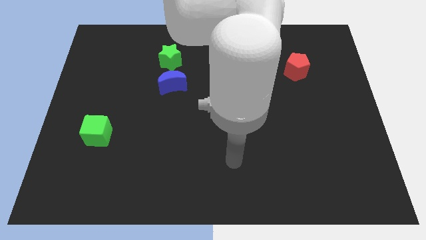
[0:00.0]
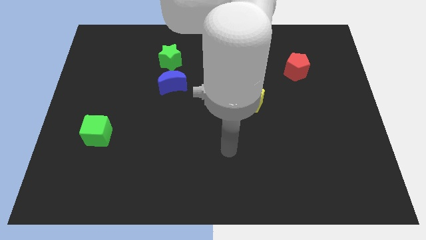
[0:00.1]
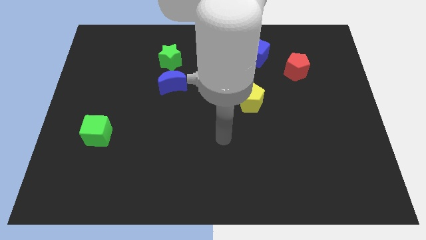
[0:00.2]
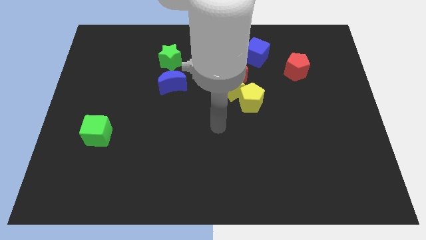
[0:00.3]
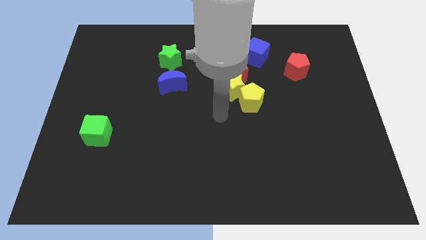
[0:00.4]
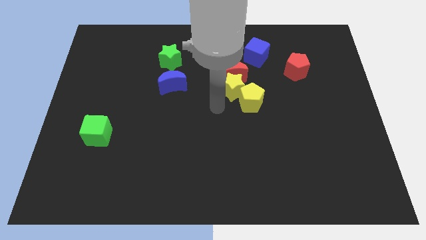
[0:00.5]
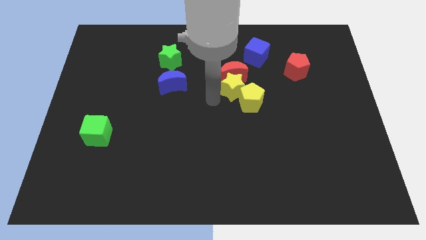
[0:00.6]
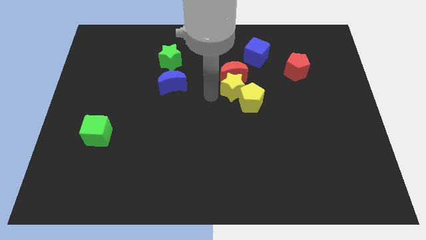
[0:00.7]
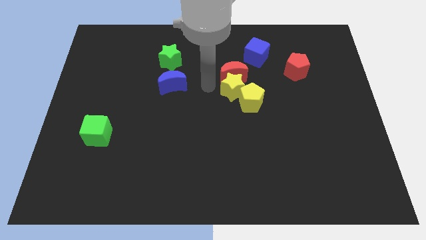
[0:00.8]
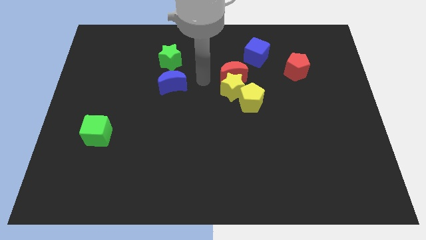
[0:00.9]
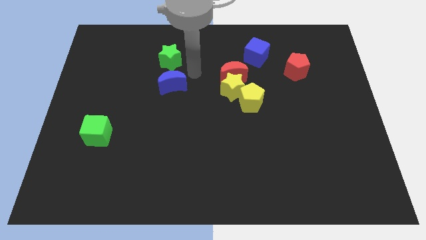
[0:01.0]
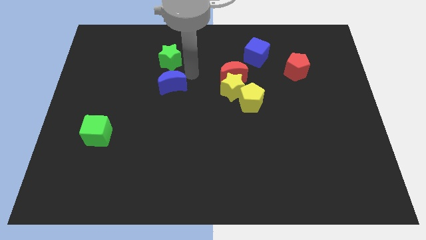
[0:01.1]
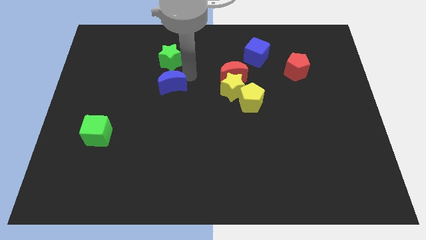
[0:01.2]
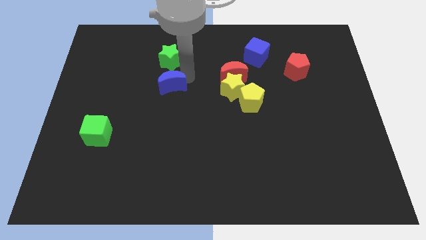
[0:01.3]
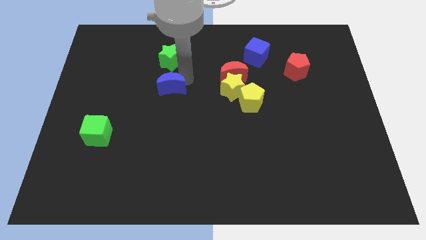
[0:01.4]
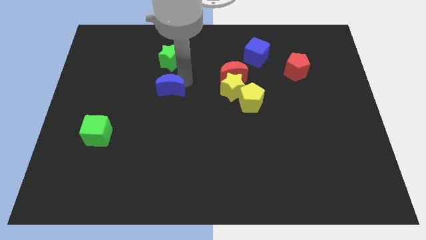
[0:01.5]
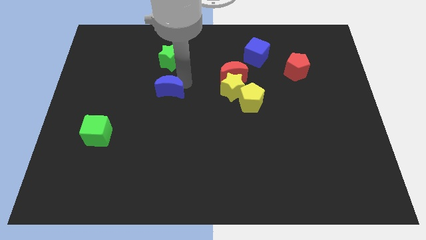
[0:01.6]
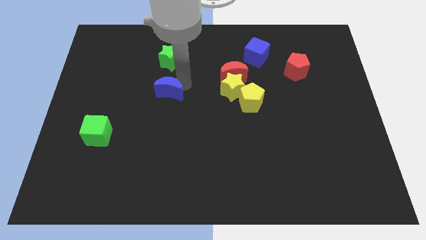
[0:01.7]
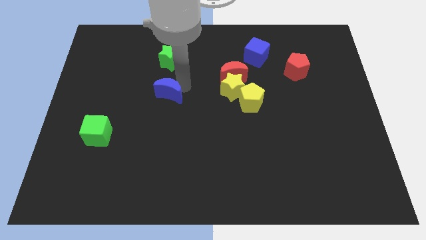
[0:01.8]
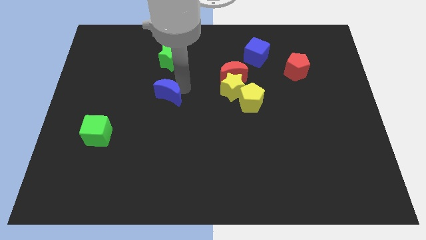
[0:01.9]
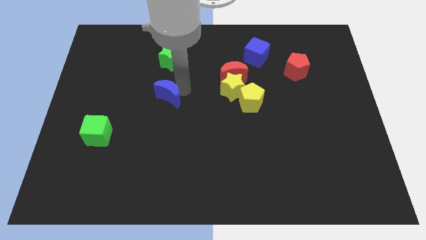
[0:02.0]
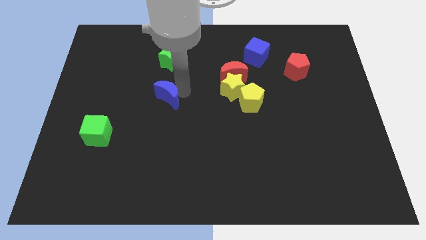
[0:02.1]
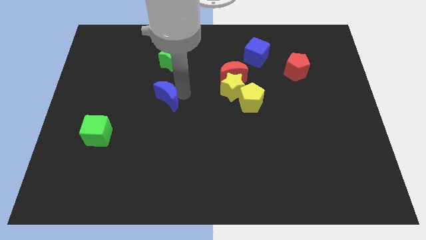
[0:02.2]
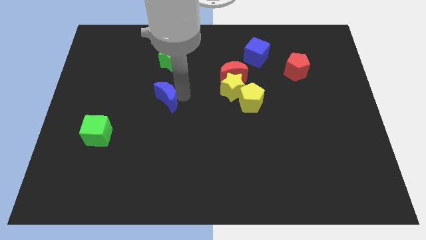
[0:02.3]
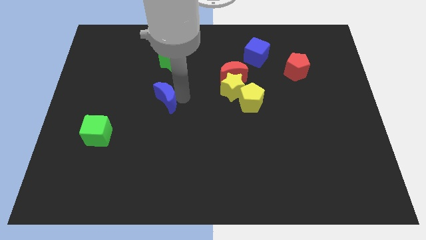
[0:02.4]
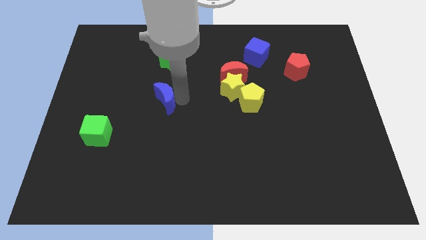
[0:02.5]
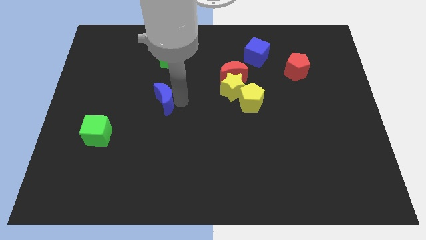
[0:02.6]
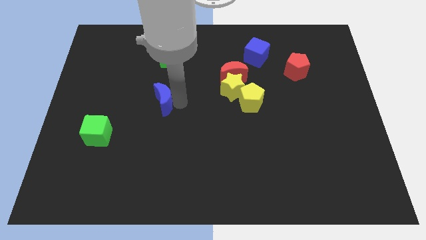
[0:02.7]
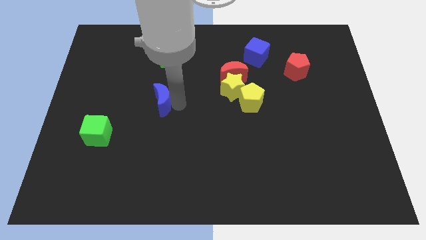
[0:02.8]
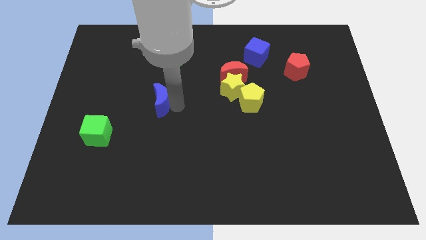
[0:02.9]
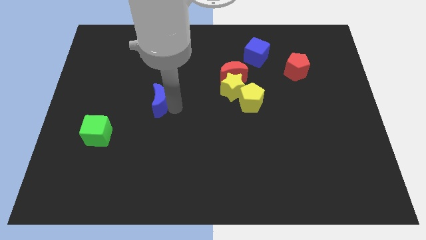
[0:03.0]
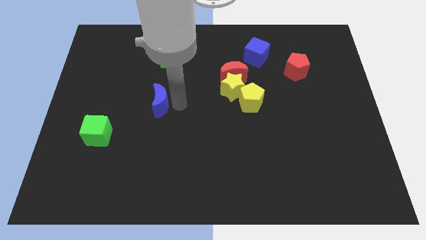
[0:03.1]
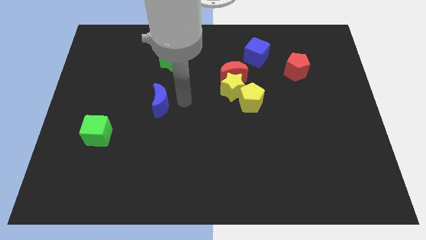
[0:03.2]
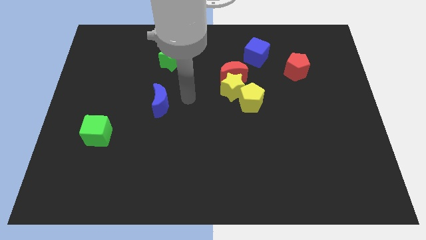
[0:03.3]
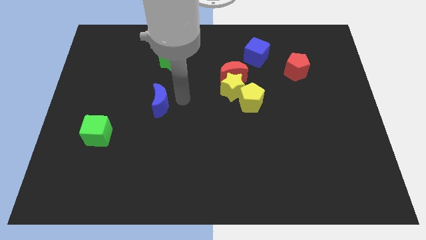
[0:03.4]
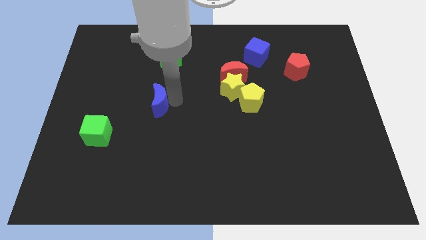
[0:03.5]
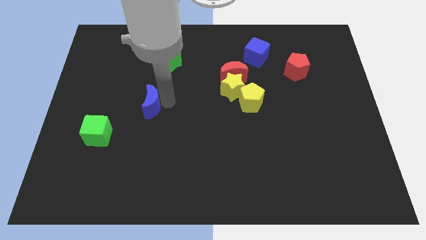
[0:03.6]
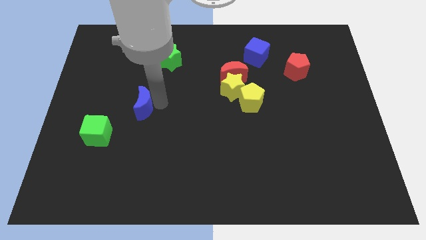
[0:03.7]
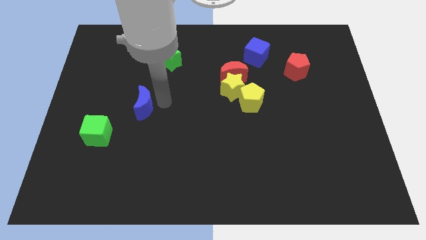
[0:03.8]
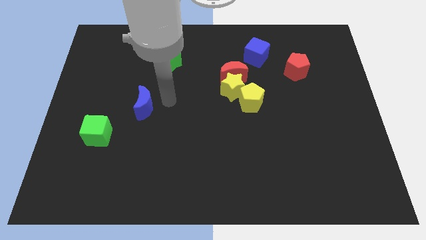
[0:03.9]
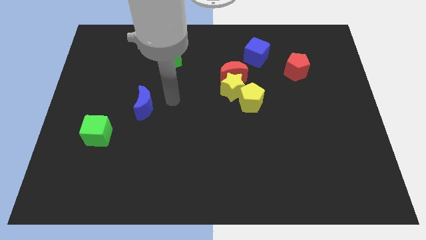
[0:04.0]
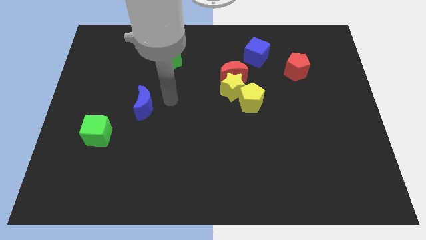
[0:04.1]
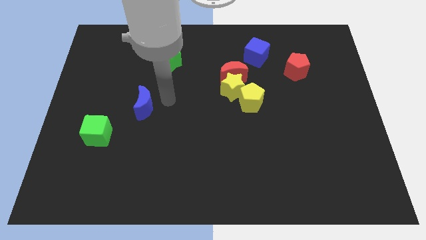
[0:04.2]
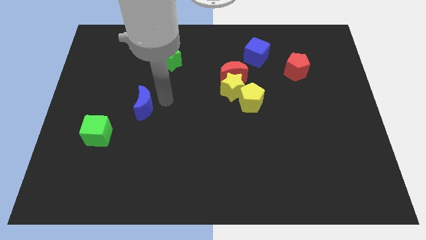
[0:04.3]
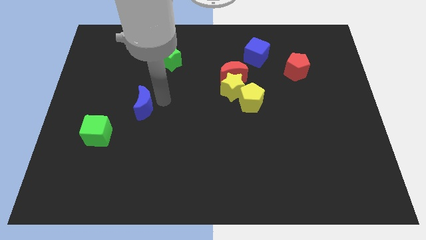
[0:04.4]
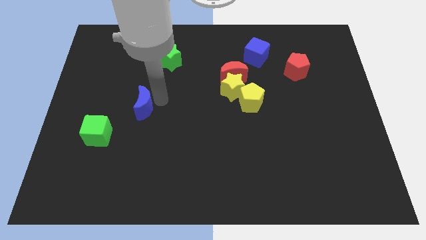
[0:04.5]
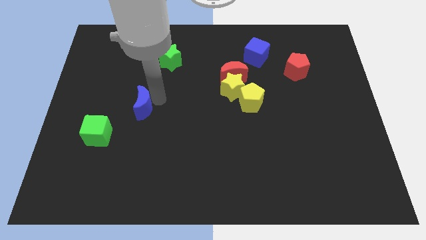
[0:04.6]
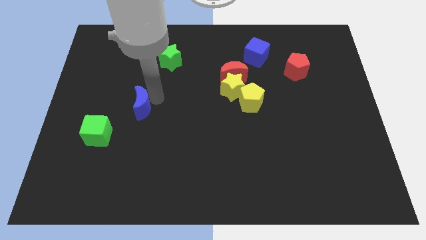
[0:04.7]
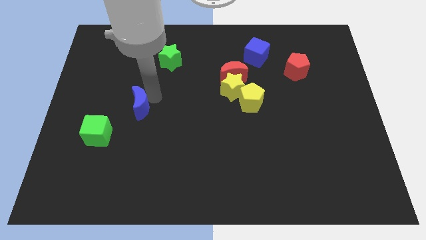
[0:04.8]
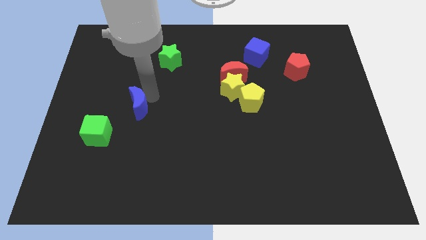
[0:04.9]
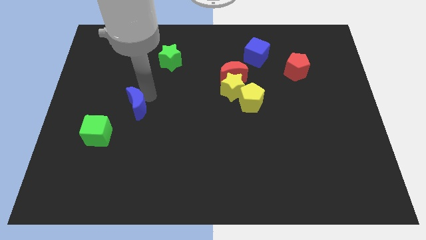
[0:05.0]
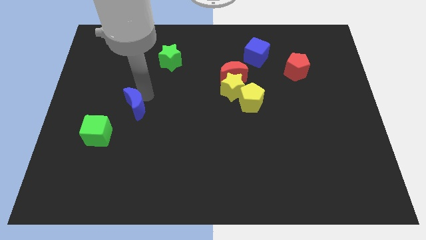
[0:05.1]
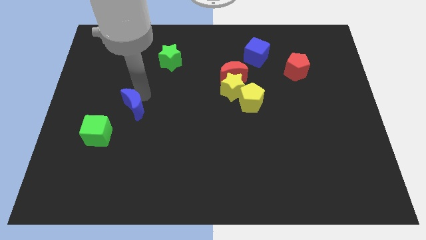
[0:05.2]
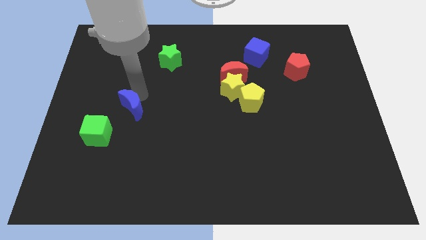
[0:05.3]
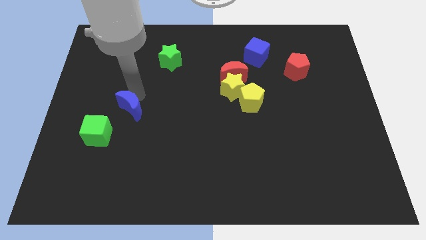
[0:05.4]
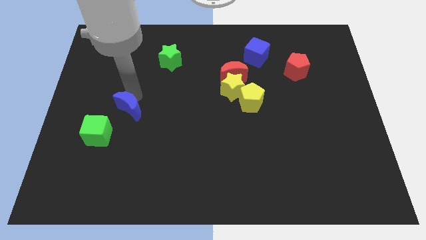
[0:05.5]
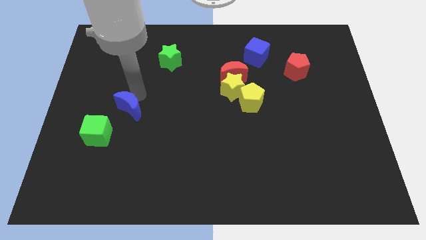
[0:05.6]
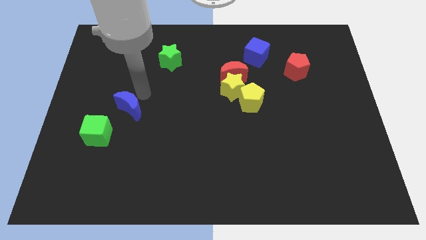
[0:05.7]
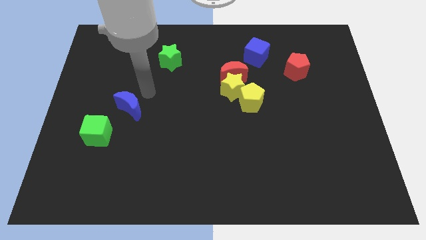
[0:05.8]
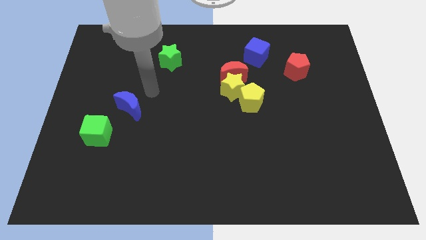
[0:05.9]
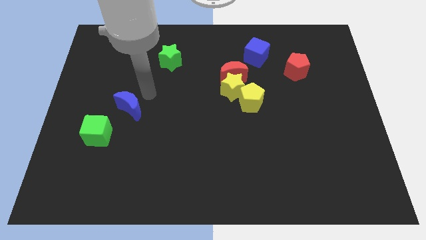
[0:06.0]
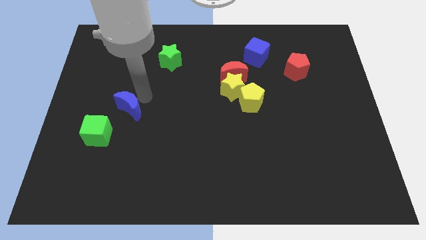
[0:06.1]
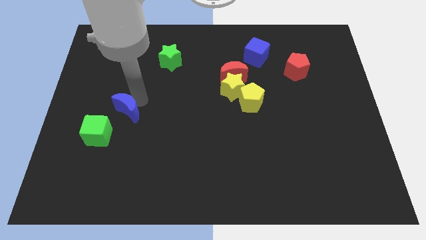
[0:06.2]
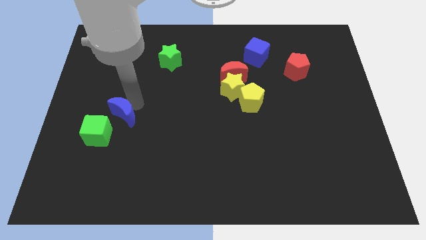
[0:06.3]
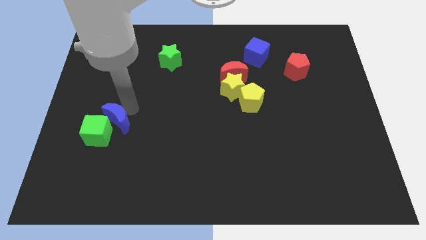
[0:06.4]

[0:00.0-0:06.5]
slide the blue moon to the green cube
